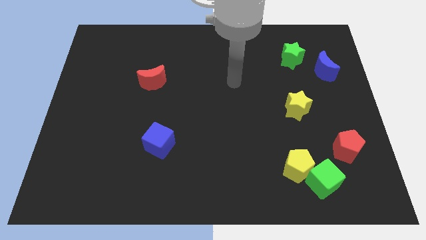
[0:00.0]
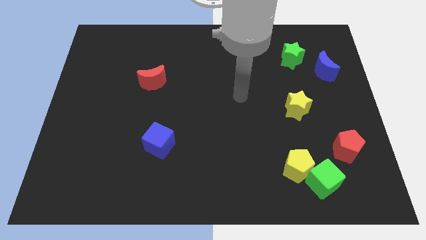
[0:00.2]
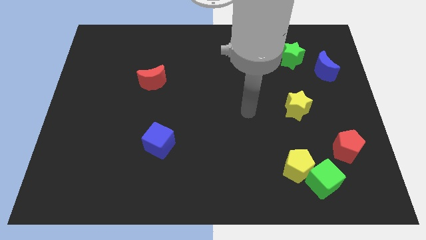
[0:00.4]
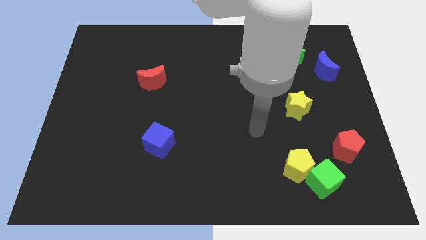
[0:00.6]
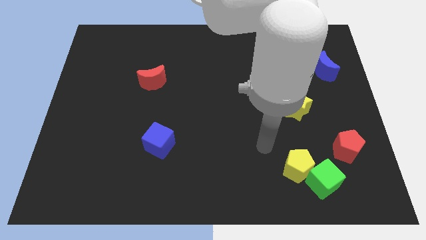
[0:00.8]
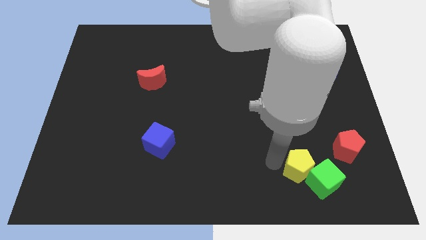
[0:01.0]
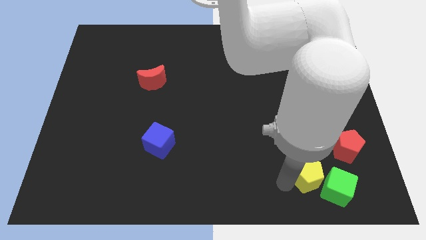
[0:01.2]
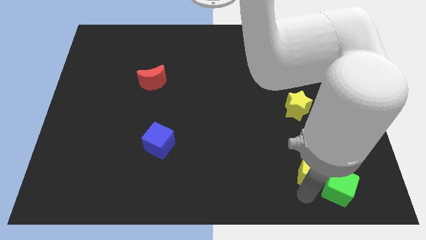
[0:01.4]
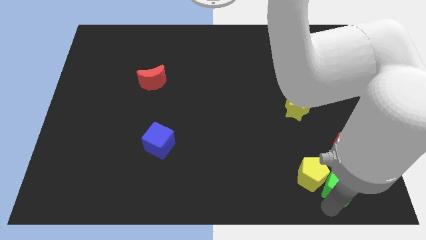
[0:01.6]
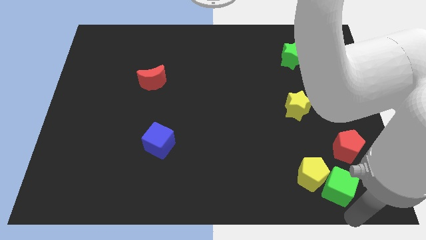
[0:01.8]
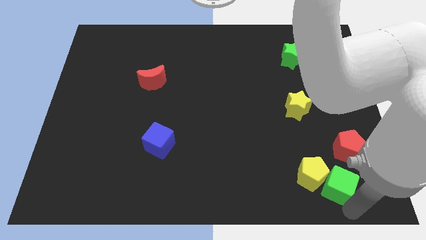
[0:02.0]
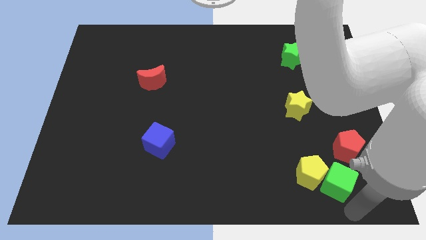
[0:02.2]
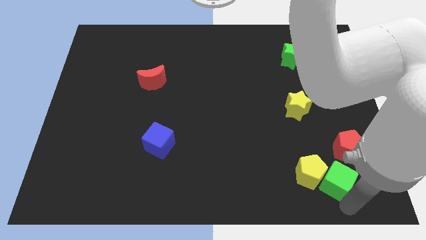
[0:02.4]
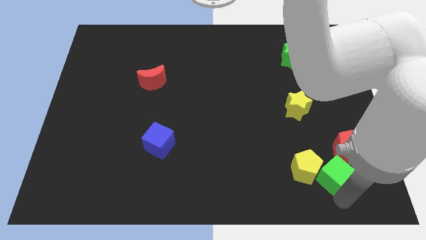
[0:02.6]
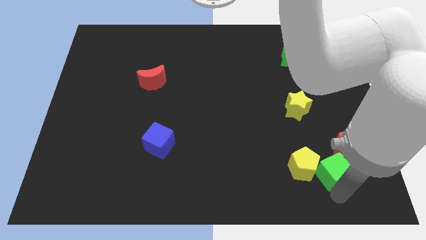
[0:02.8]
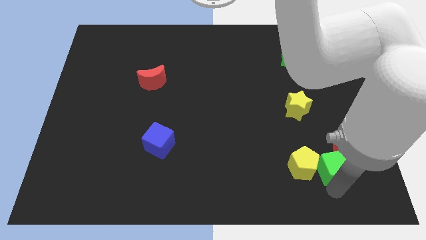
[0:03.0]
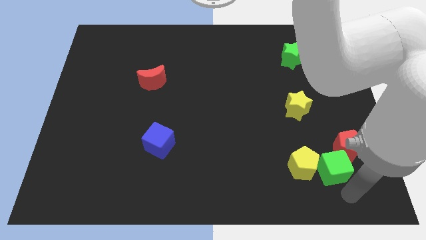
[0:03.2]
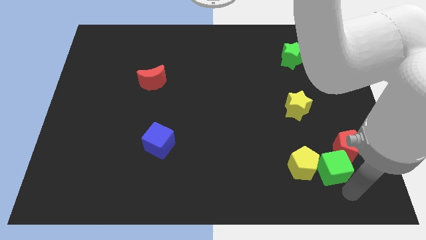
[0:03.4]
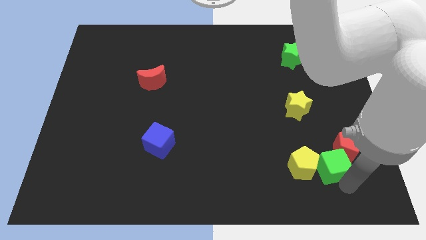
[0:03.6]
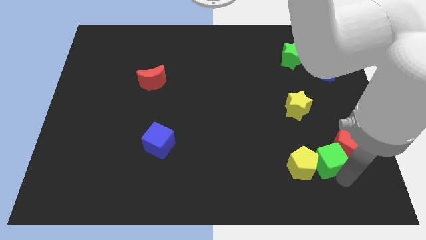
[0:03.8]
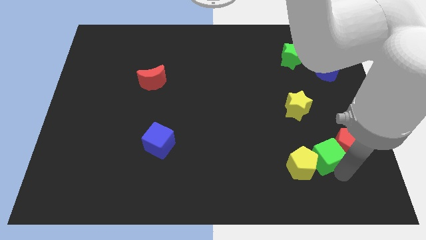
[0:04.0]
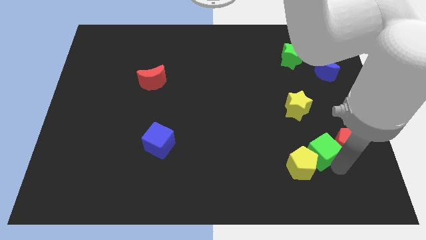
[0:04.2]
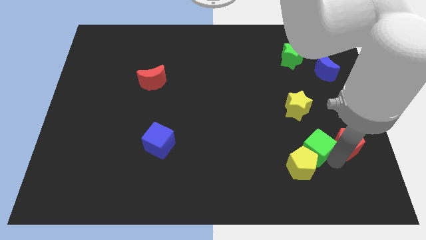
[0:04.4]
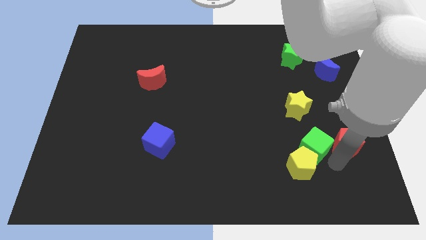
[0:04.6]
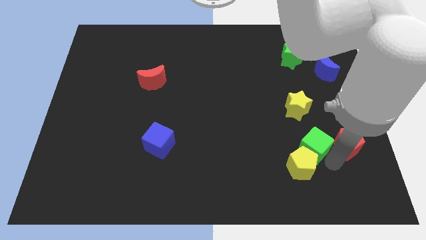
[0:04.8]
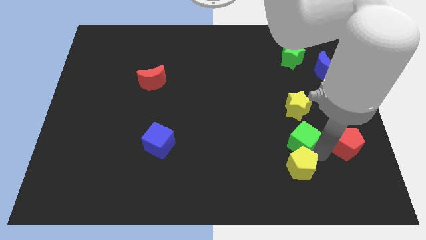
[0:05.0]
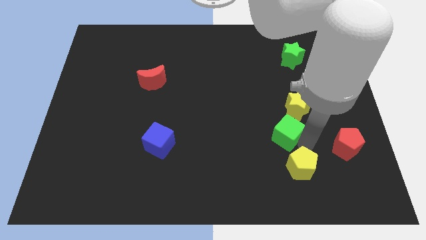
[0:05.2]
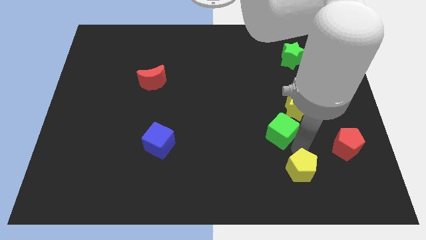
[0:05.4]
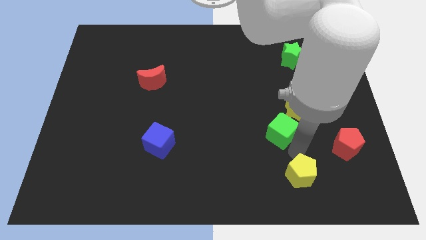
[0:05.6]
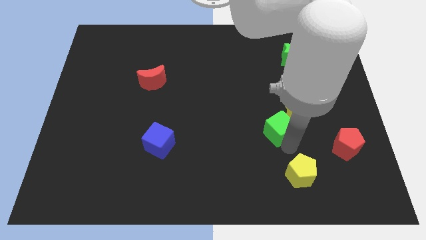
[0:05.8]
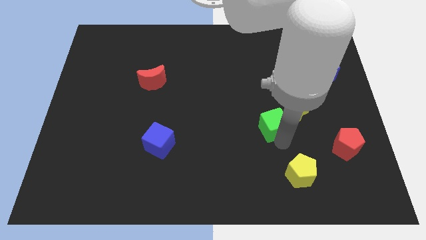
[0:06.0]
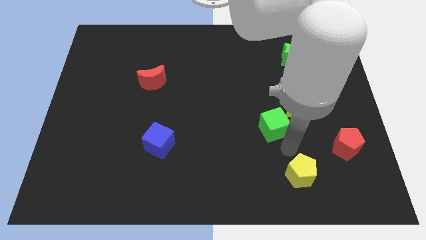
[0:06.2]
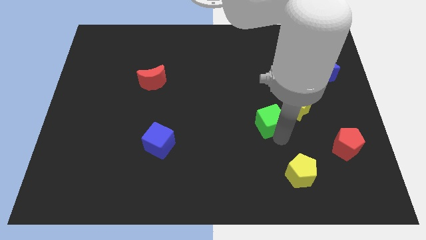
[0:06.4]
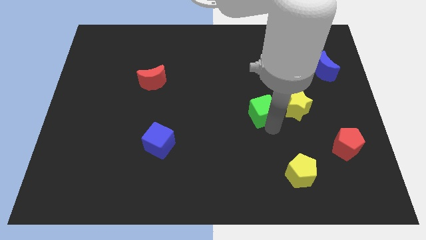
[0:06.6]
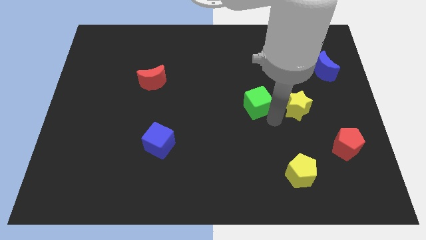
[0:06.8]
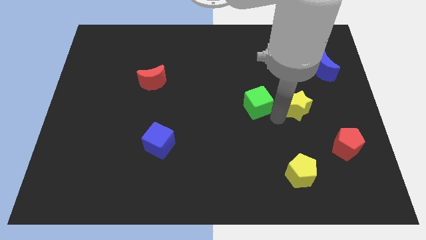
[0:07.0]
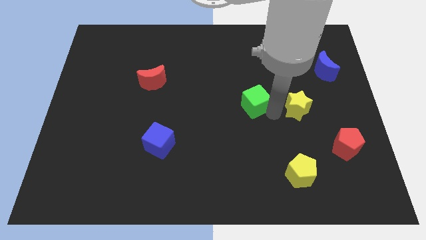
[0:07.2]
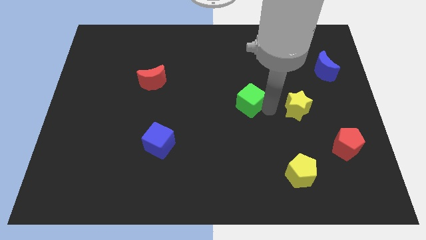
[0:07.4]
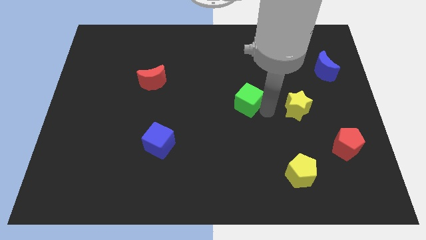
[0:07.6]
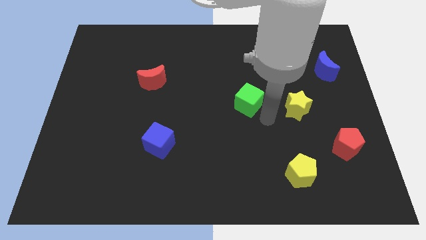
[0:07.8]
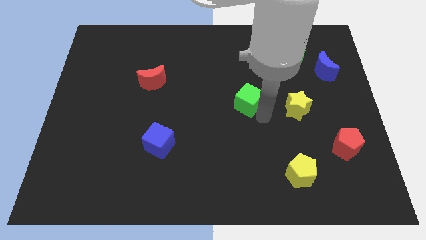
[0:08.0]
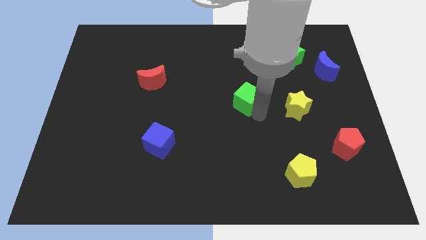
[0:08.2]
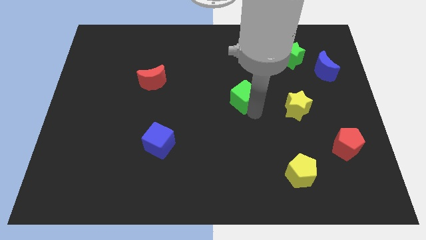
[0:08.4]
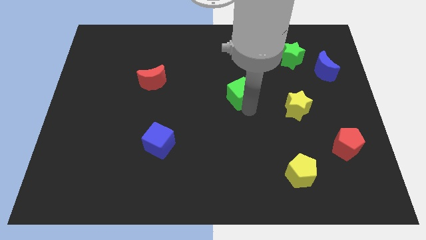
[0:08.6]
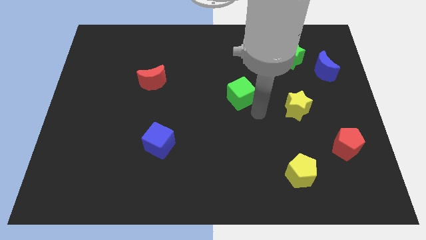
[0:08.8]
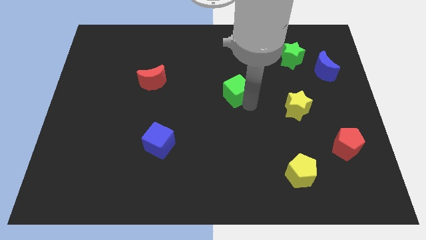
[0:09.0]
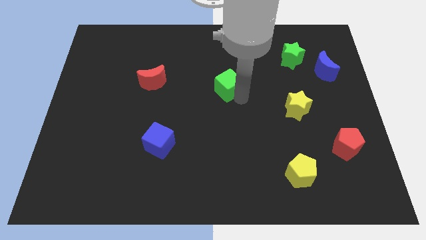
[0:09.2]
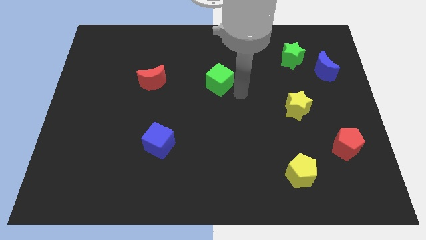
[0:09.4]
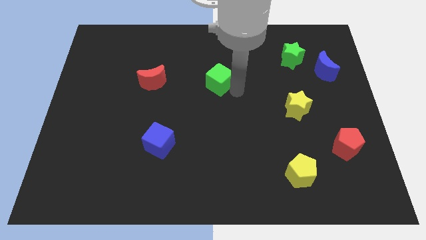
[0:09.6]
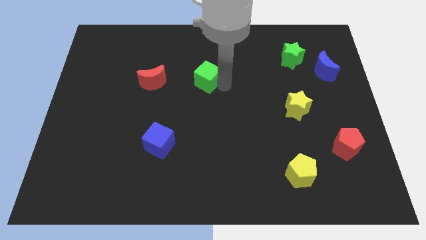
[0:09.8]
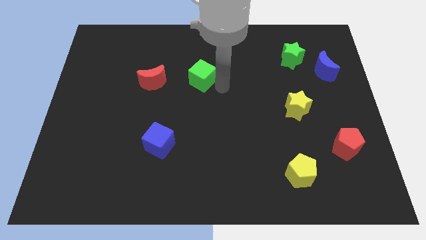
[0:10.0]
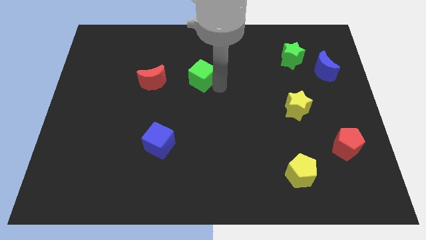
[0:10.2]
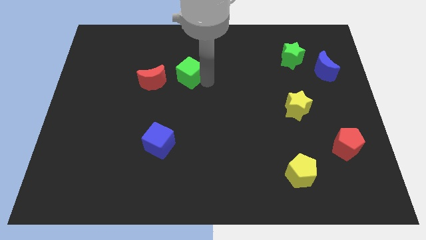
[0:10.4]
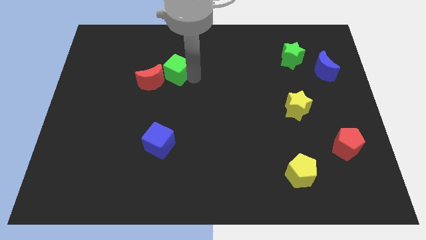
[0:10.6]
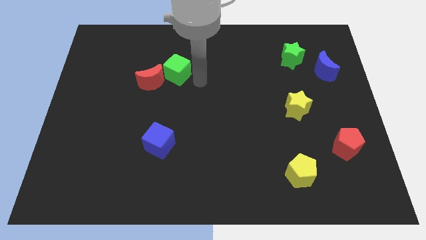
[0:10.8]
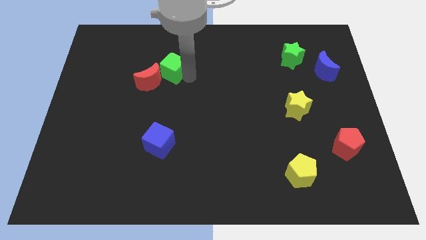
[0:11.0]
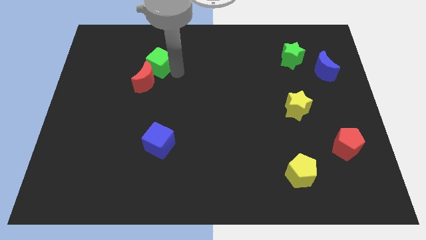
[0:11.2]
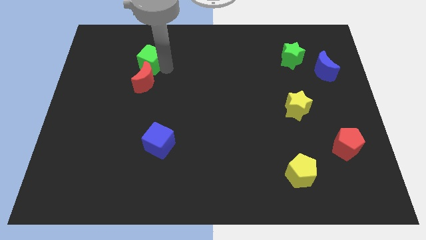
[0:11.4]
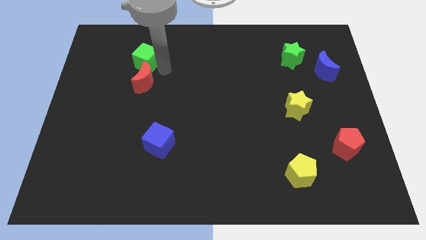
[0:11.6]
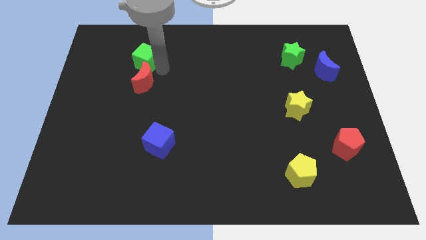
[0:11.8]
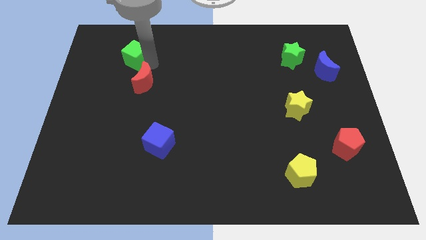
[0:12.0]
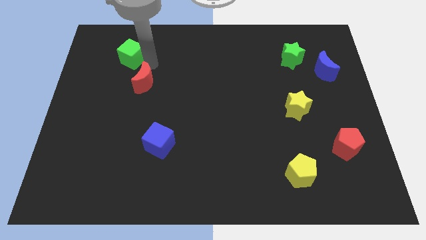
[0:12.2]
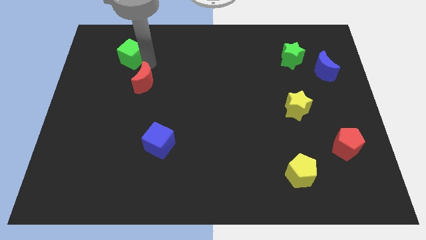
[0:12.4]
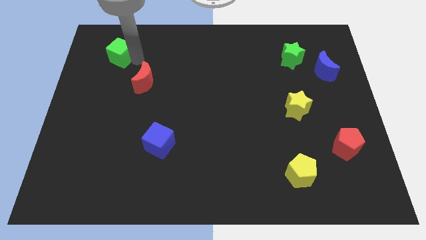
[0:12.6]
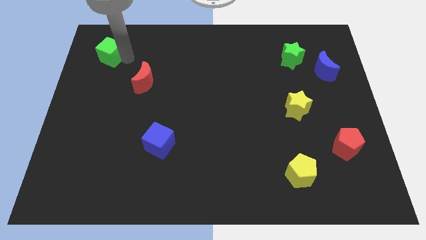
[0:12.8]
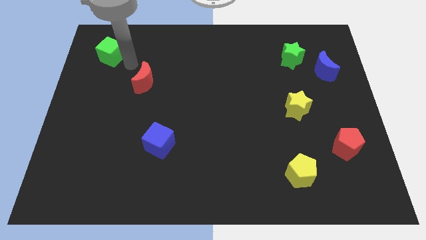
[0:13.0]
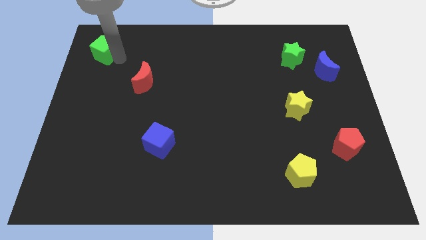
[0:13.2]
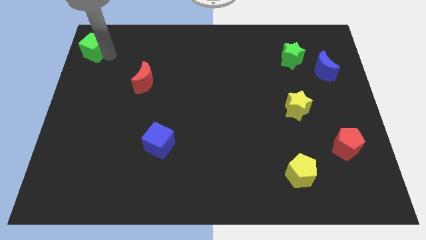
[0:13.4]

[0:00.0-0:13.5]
put the green cube to the top left

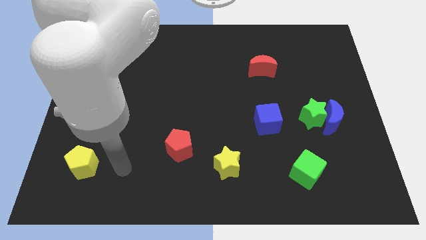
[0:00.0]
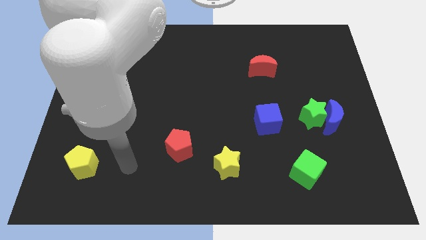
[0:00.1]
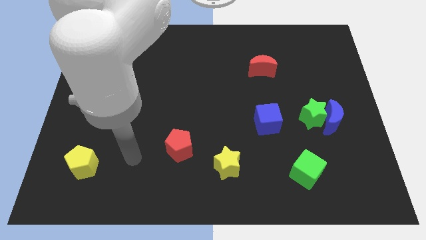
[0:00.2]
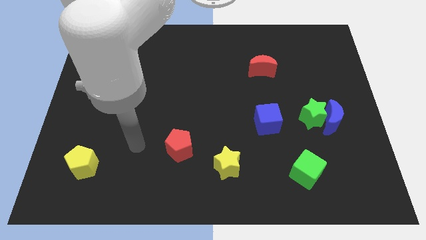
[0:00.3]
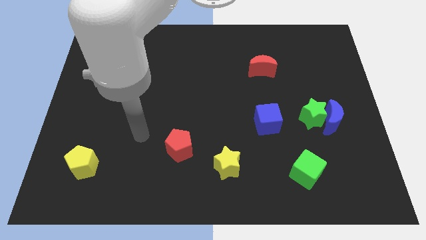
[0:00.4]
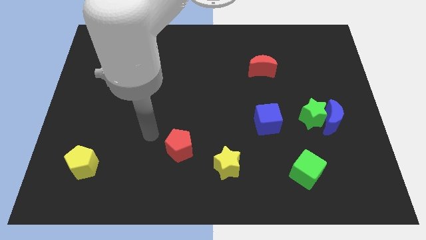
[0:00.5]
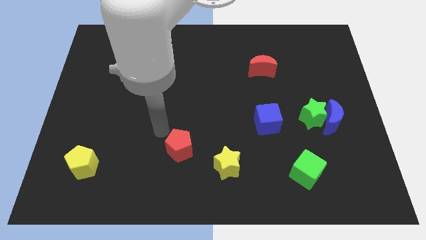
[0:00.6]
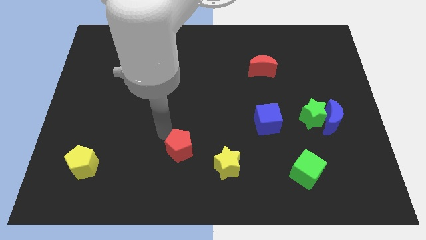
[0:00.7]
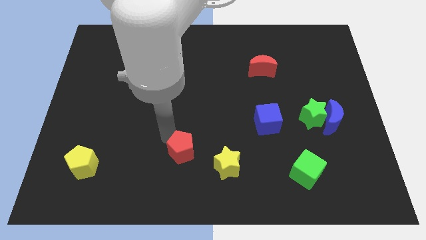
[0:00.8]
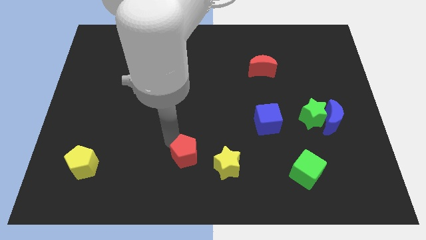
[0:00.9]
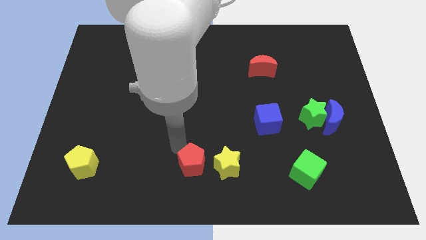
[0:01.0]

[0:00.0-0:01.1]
move the red pentagon to the bottom
